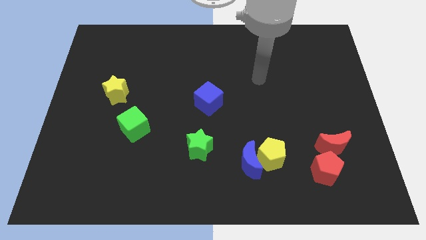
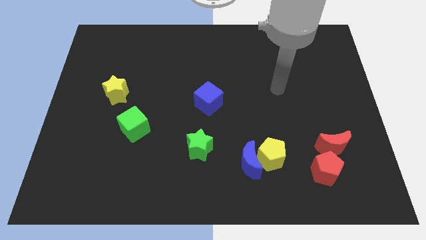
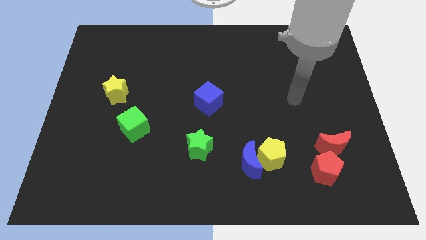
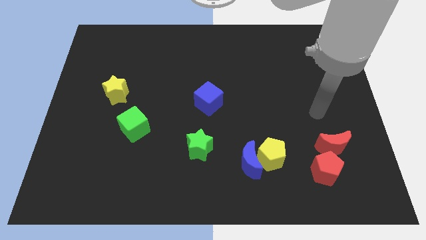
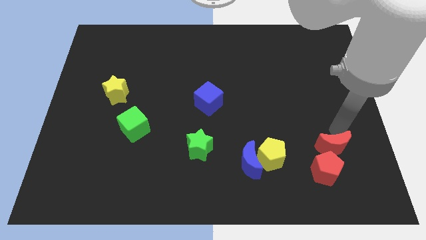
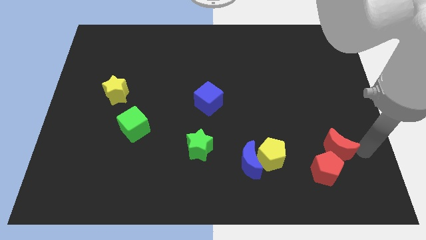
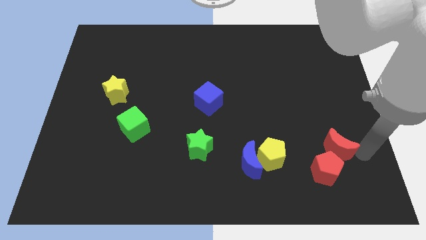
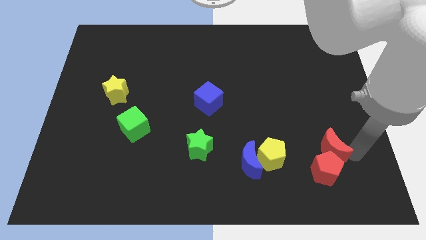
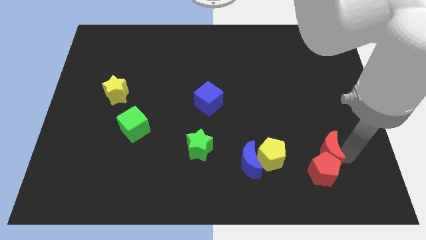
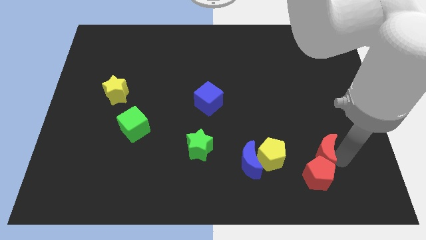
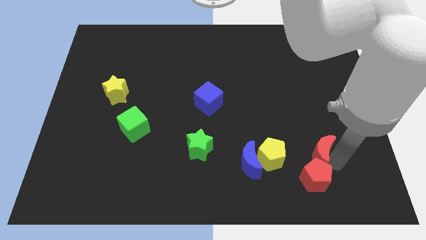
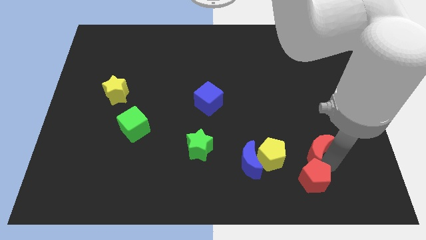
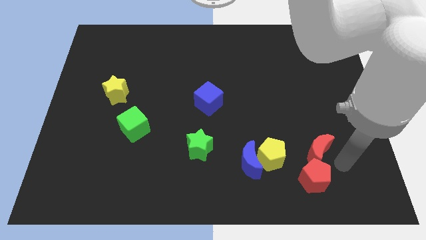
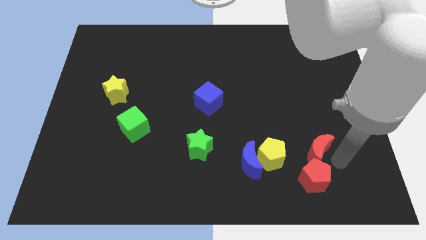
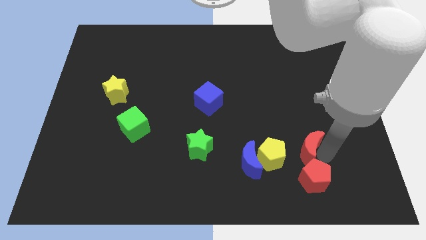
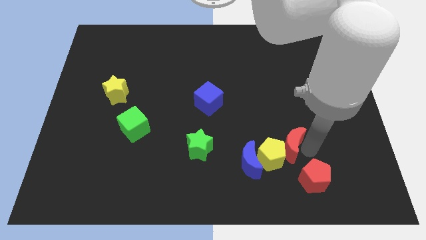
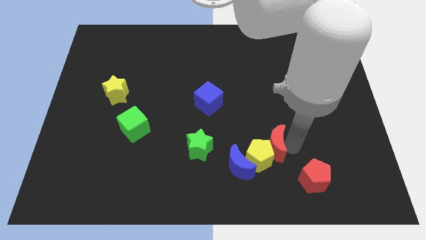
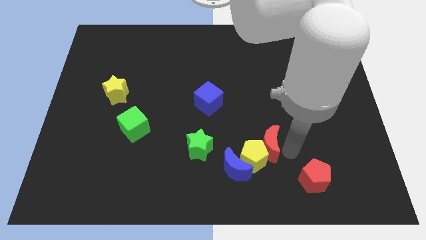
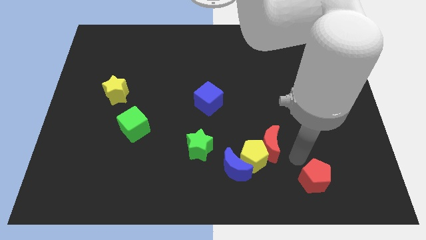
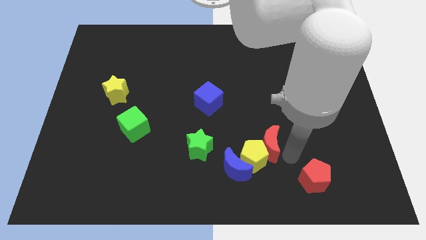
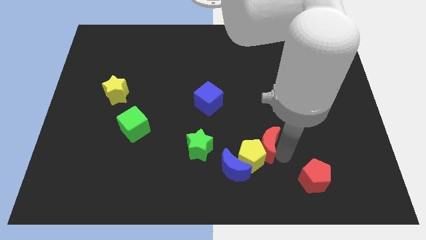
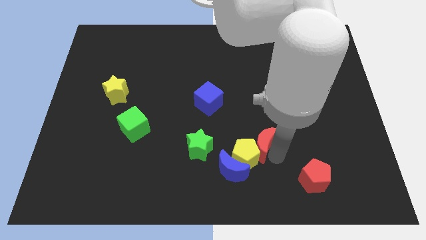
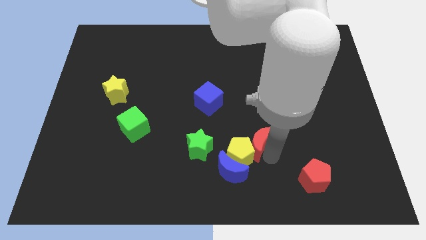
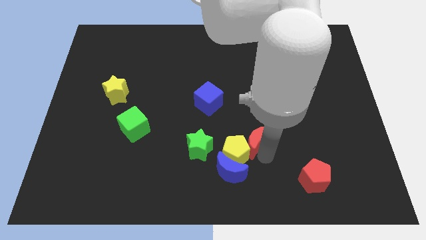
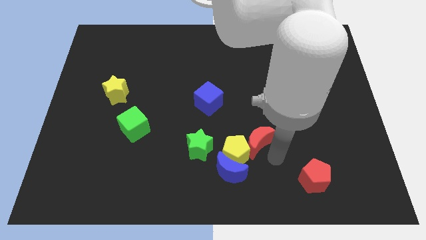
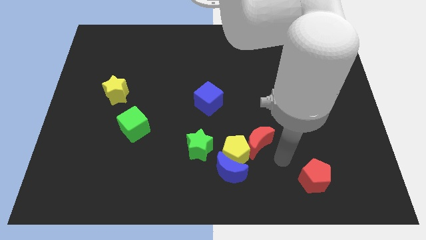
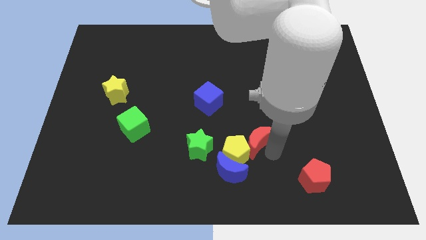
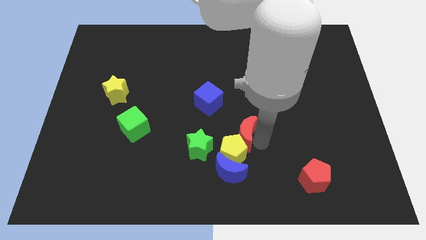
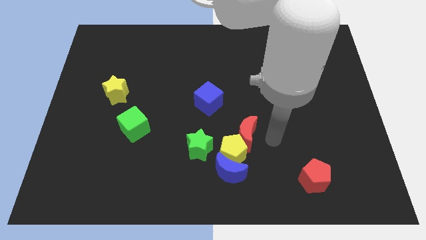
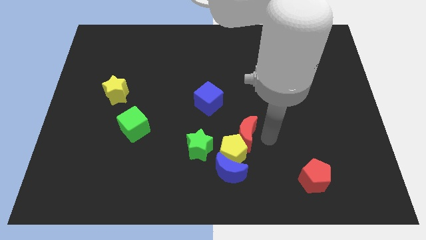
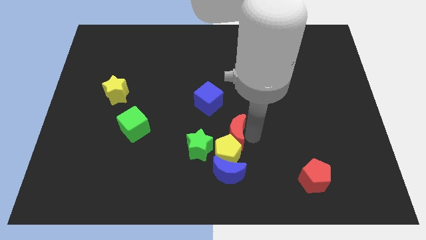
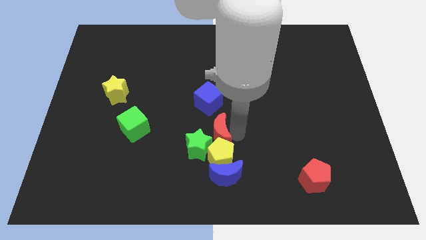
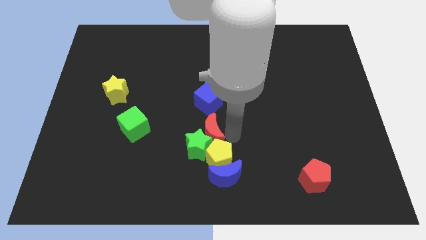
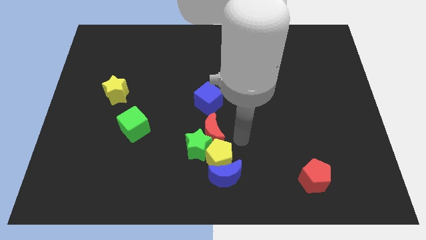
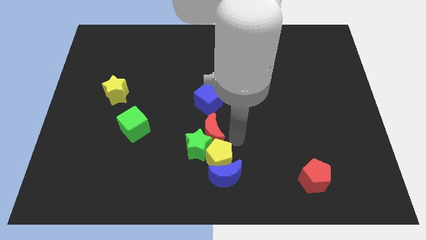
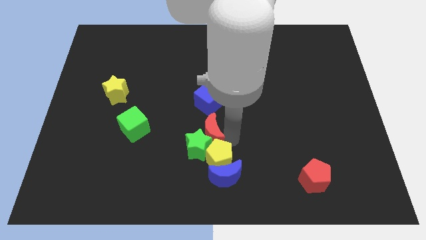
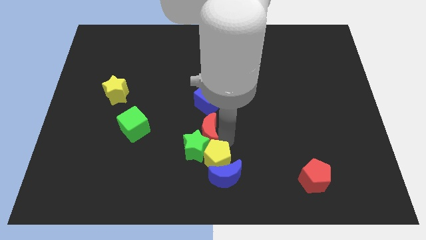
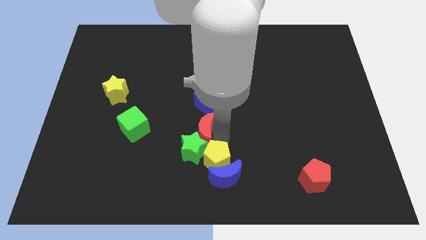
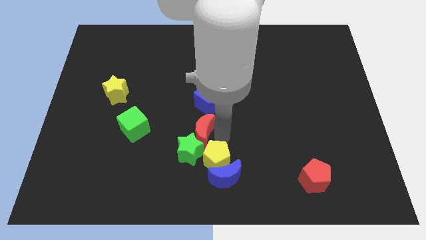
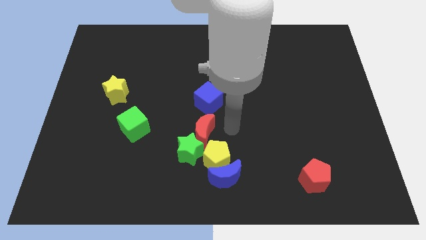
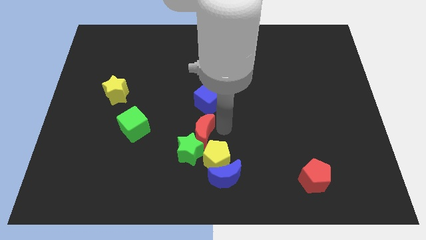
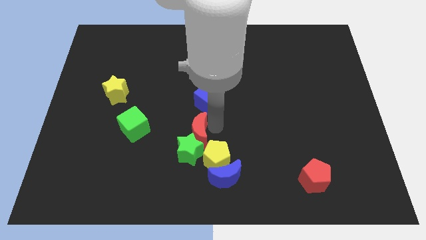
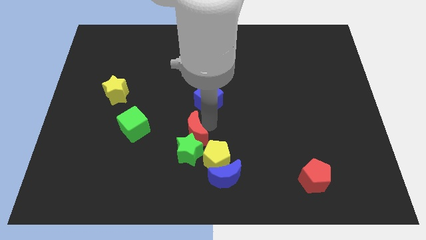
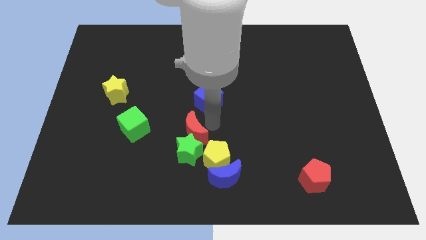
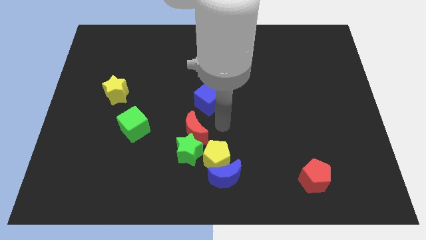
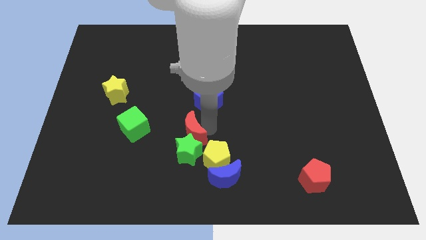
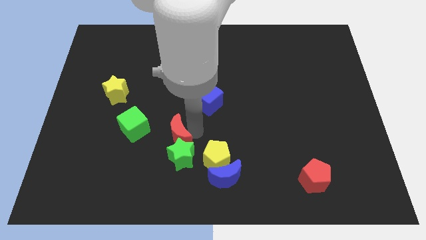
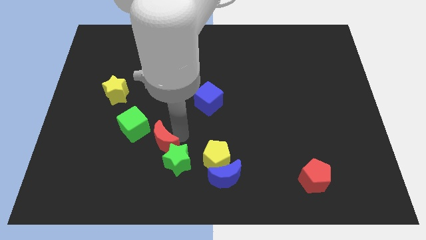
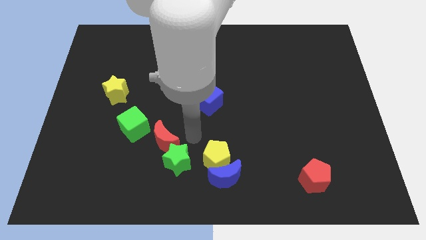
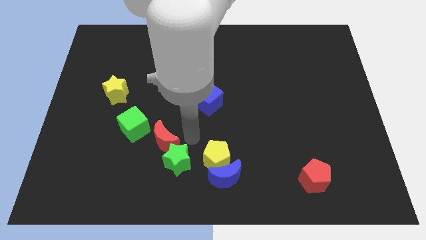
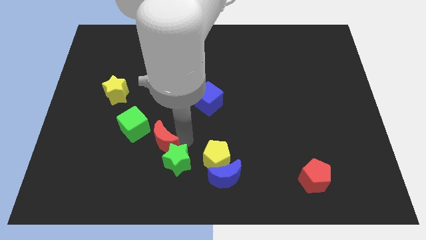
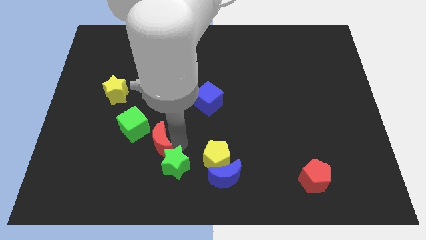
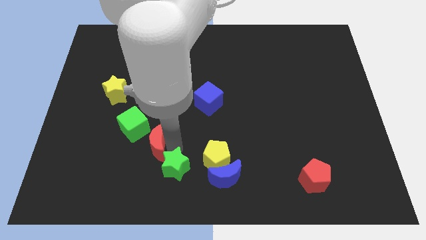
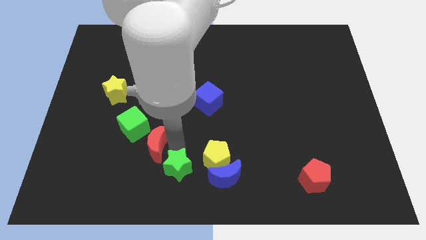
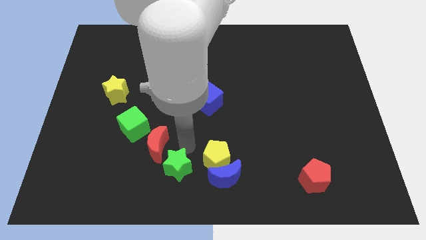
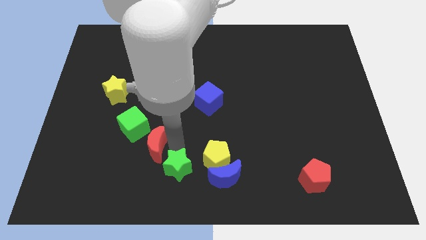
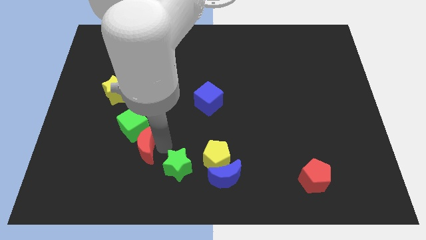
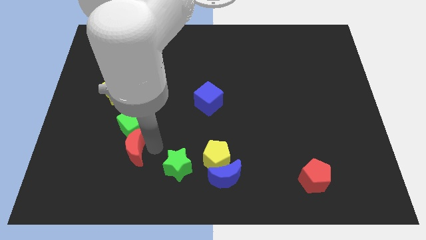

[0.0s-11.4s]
move the red moon to the bottom left side of the green cube

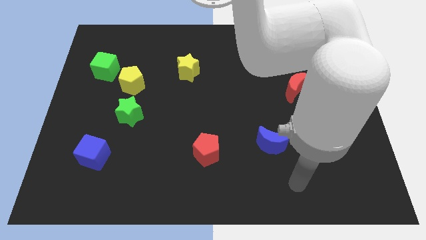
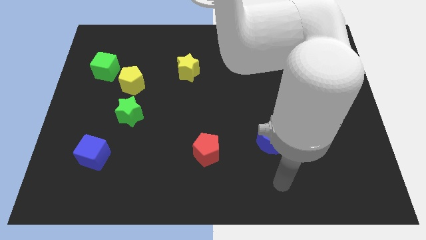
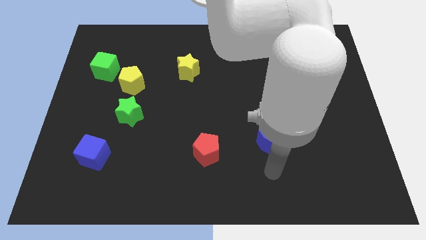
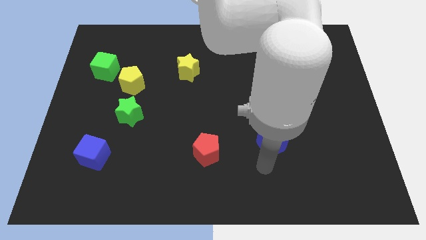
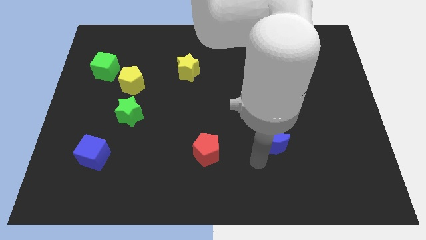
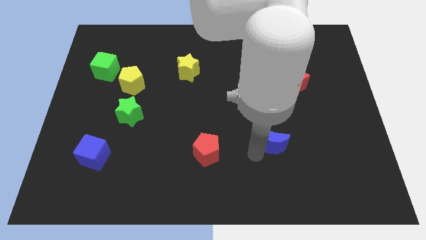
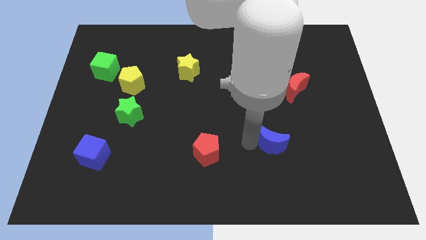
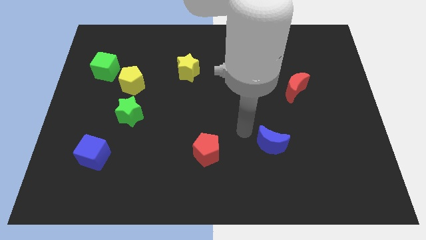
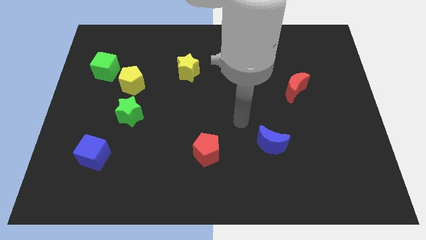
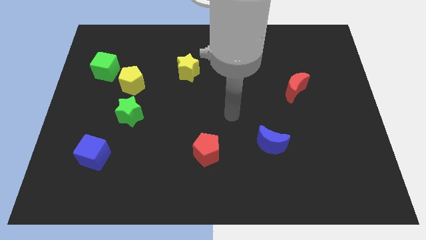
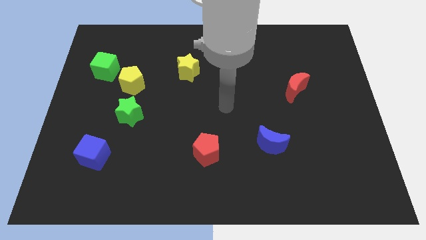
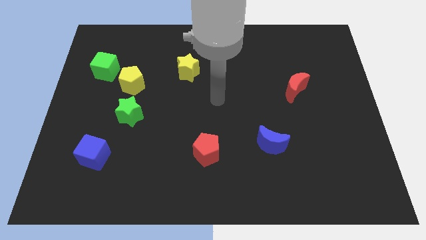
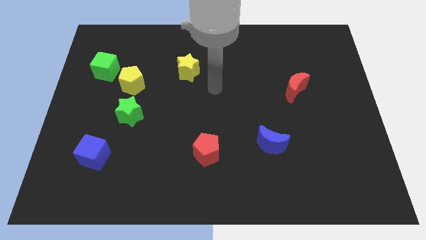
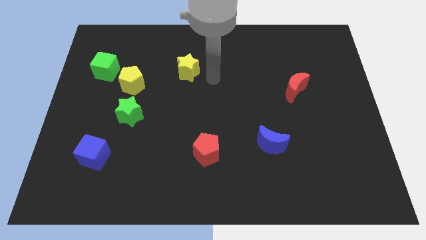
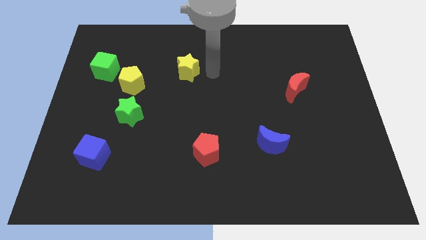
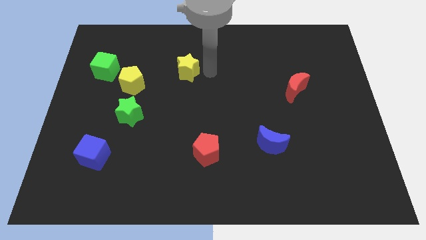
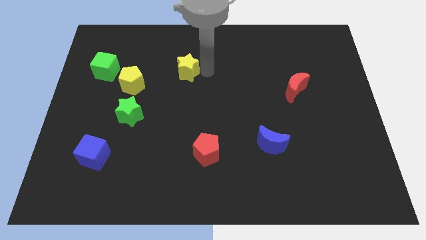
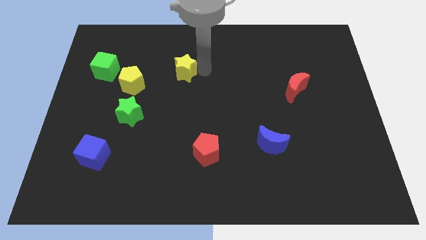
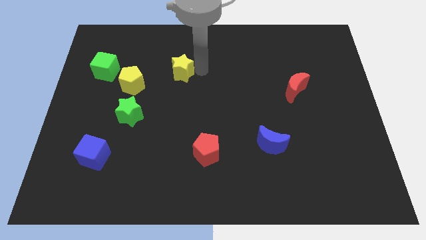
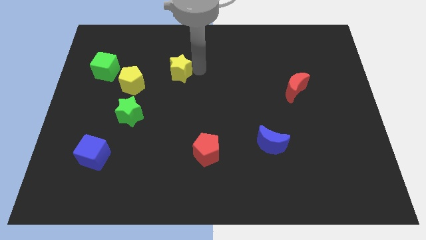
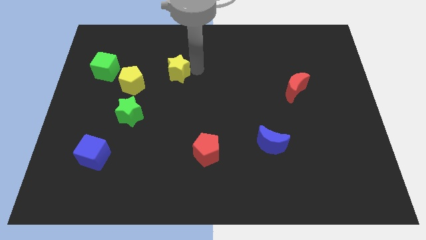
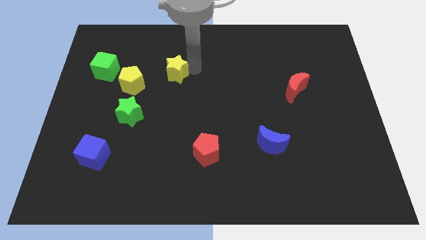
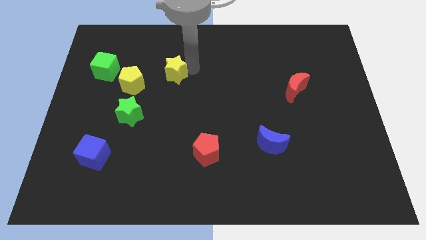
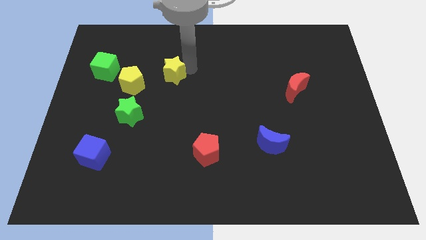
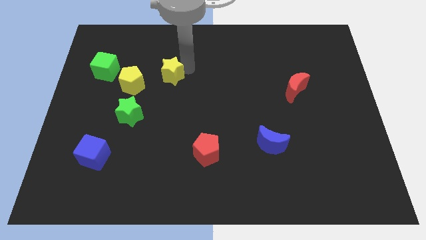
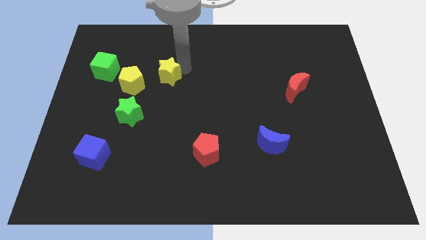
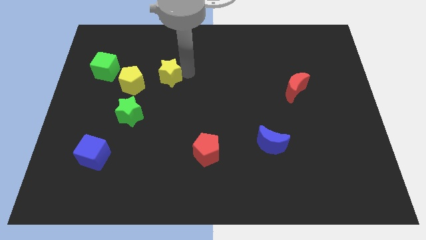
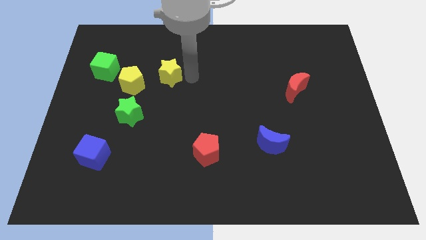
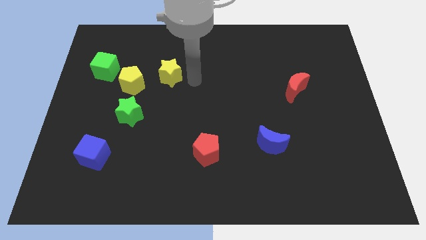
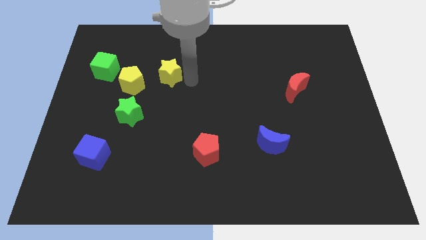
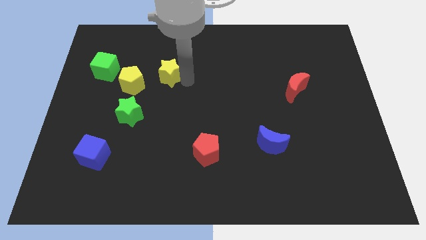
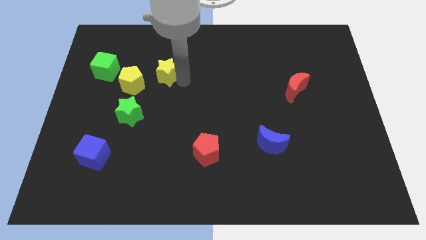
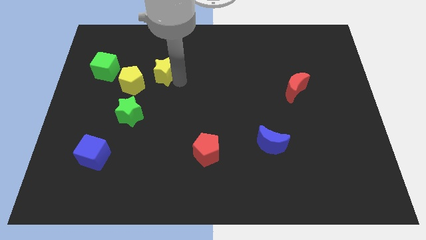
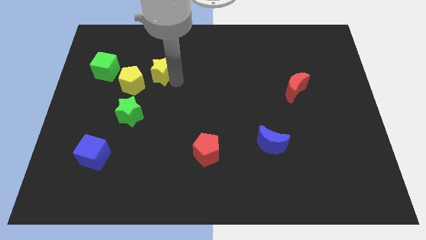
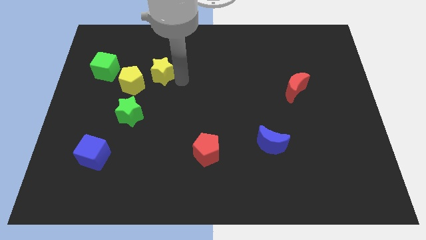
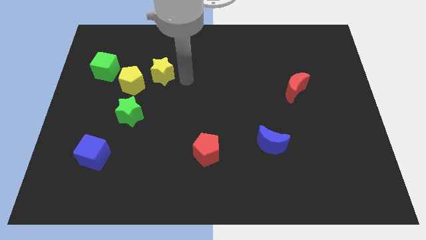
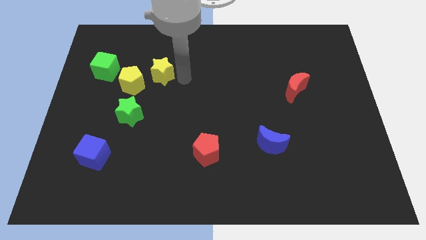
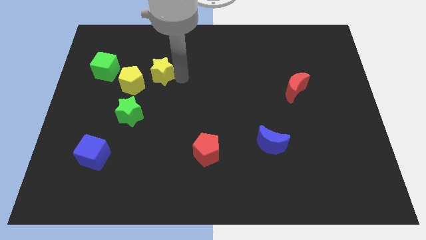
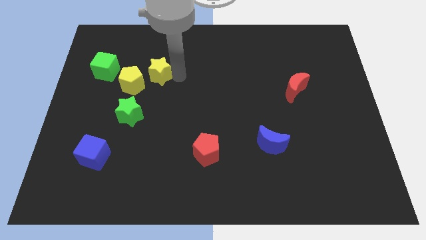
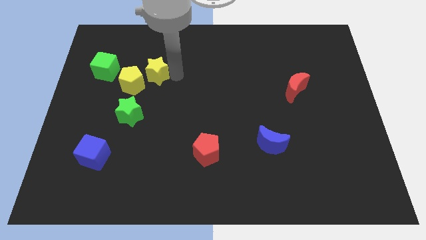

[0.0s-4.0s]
put the yellow star to the top of the green star
